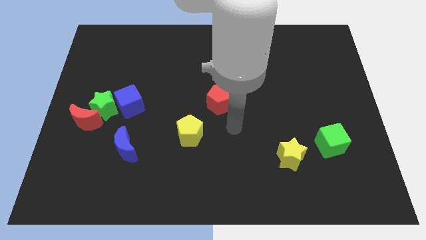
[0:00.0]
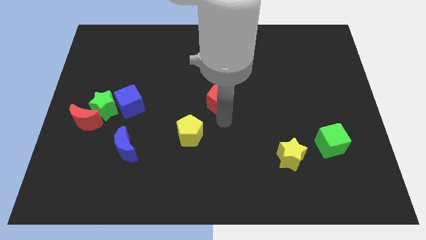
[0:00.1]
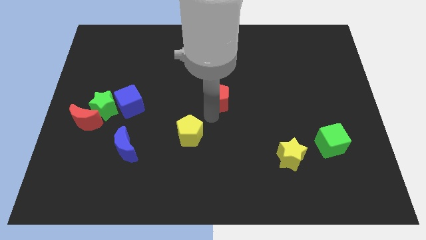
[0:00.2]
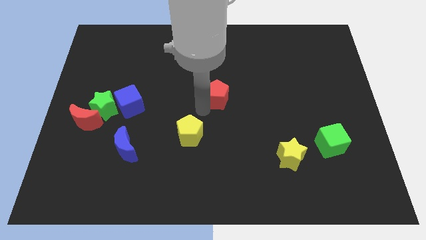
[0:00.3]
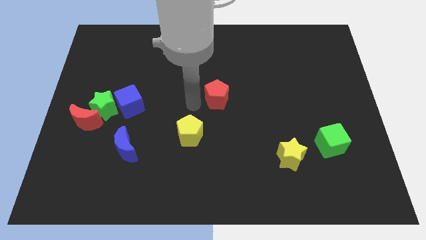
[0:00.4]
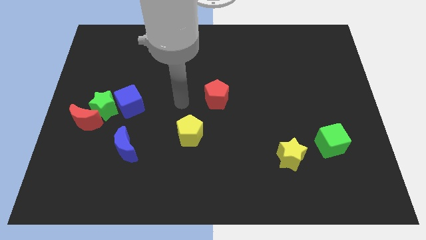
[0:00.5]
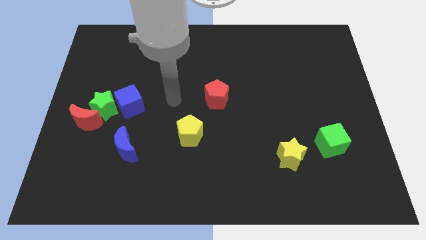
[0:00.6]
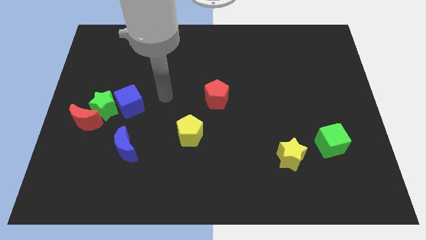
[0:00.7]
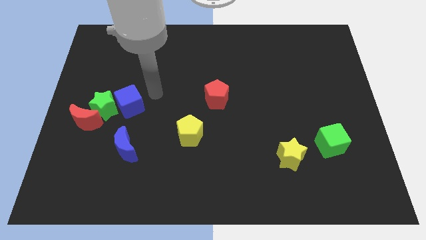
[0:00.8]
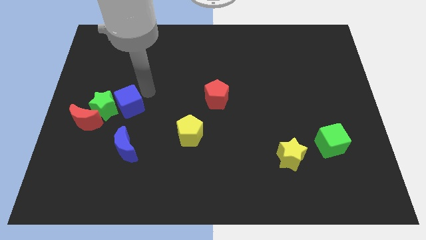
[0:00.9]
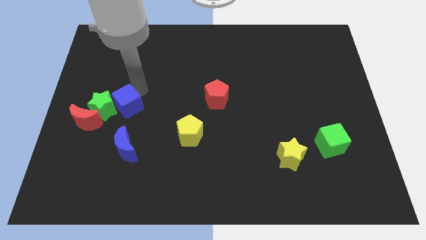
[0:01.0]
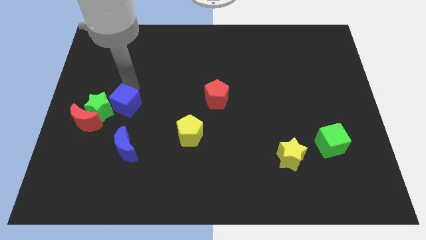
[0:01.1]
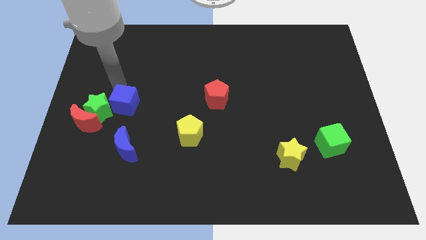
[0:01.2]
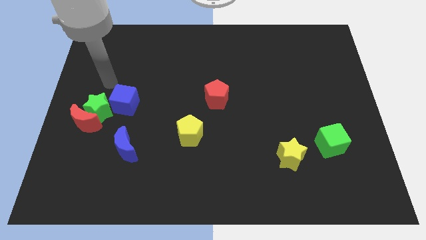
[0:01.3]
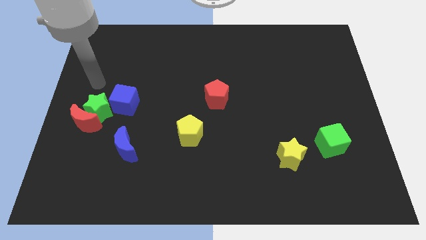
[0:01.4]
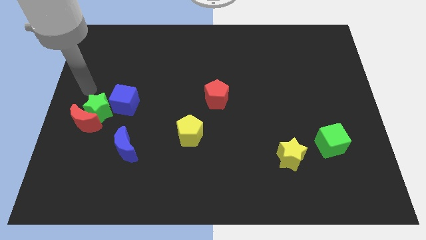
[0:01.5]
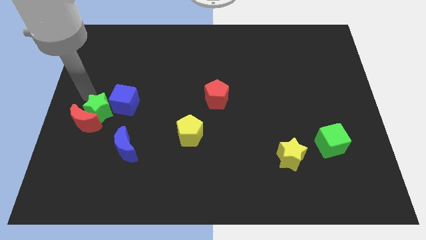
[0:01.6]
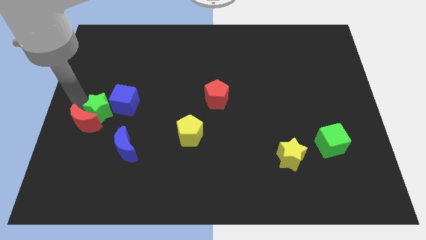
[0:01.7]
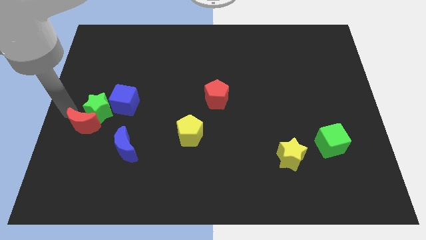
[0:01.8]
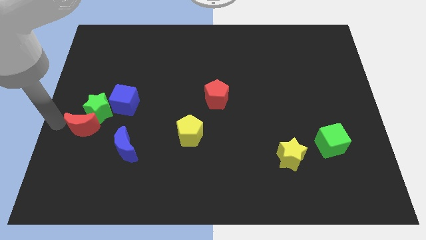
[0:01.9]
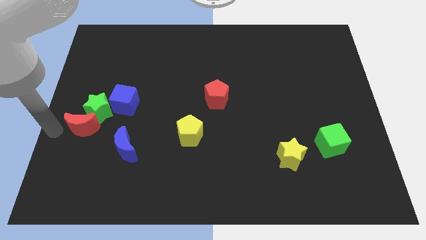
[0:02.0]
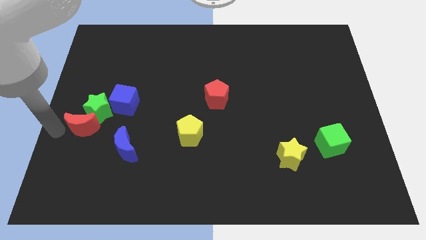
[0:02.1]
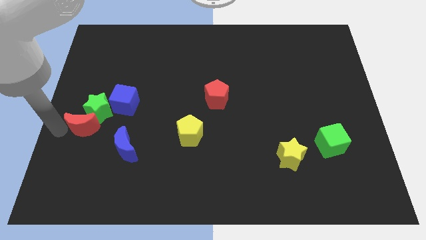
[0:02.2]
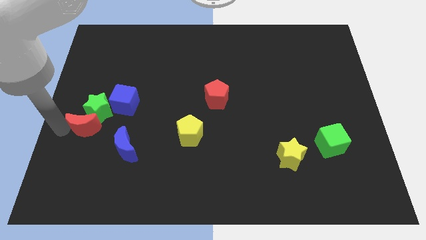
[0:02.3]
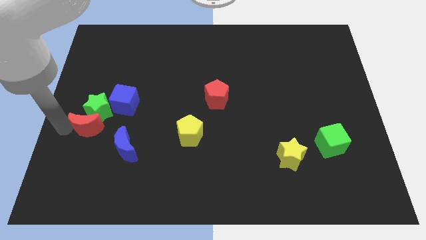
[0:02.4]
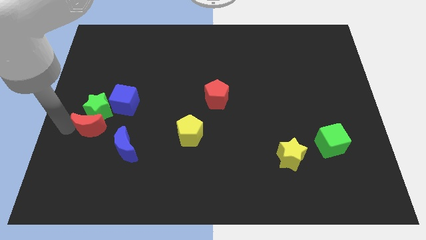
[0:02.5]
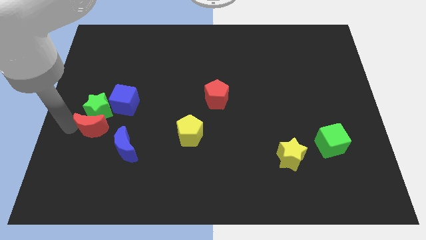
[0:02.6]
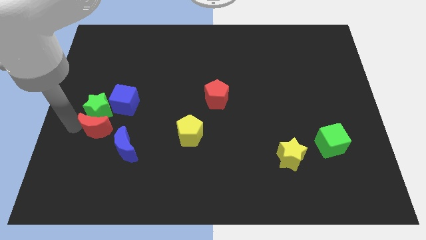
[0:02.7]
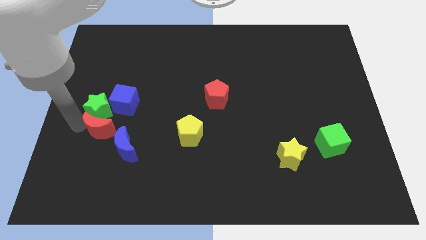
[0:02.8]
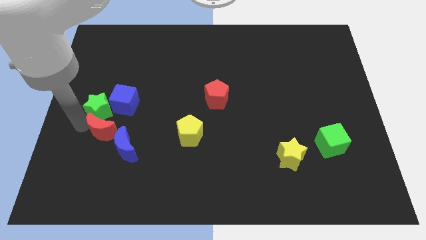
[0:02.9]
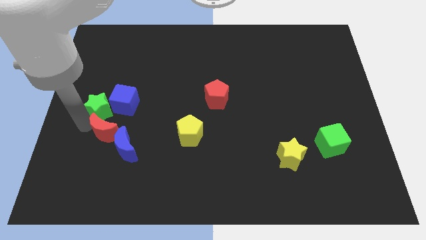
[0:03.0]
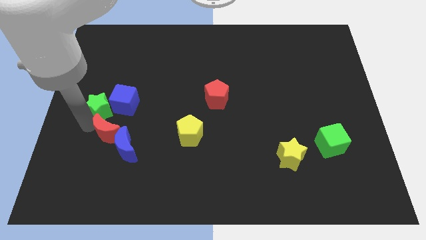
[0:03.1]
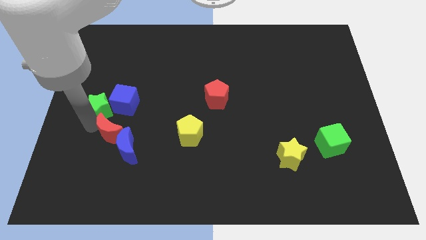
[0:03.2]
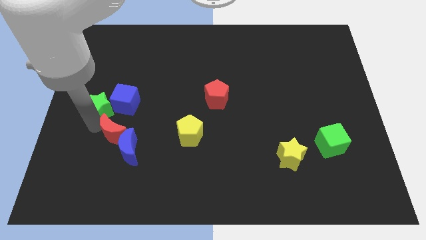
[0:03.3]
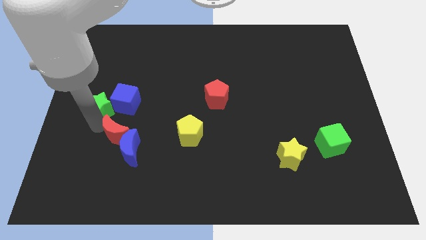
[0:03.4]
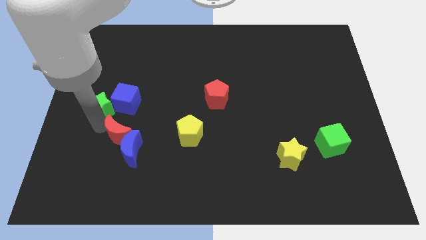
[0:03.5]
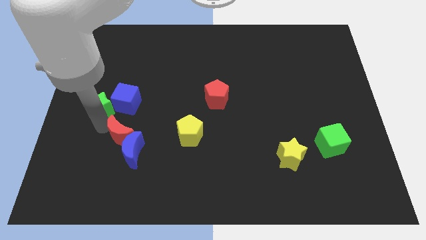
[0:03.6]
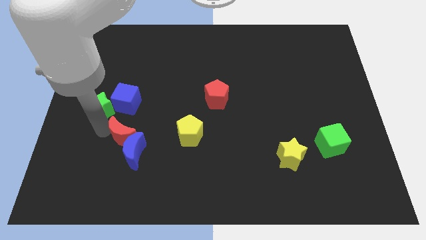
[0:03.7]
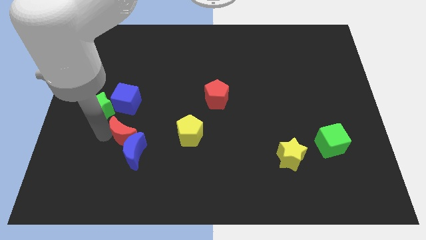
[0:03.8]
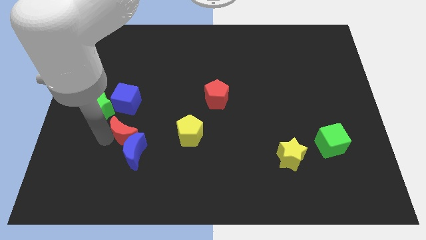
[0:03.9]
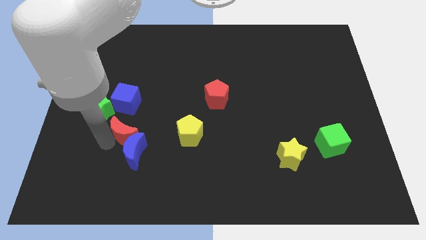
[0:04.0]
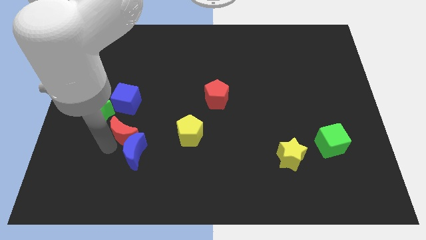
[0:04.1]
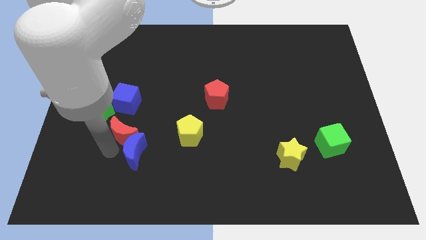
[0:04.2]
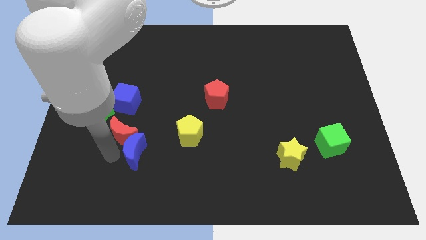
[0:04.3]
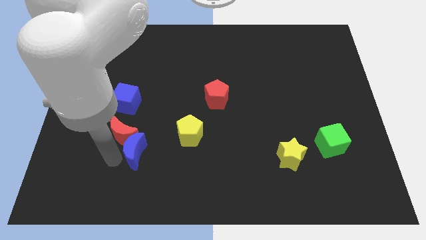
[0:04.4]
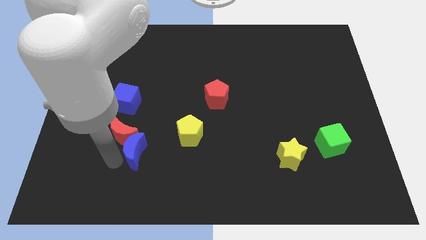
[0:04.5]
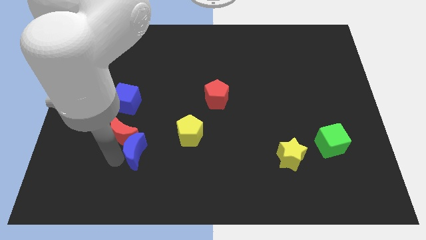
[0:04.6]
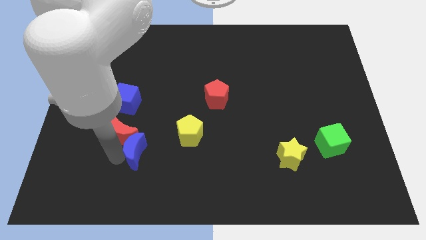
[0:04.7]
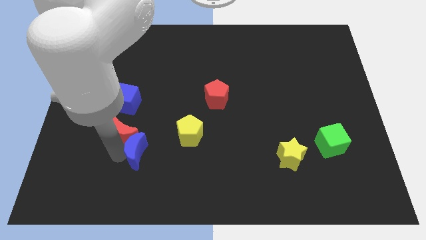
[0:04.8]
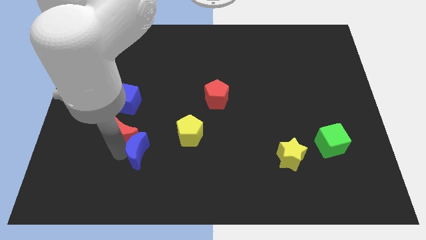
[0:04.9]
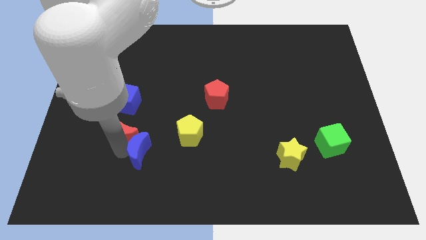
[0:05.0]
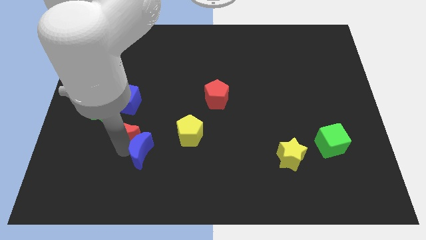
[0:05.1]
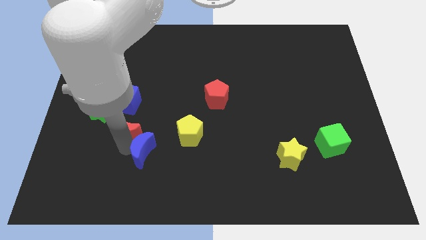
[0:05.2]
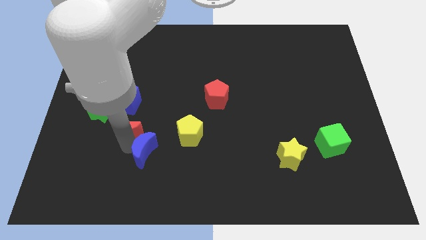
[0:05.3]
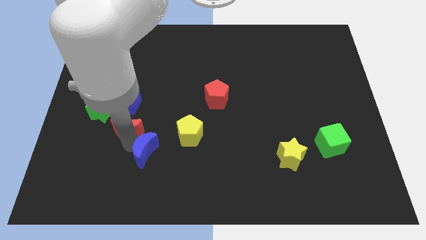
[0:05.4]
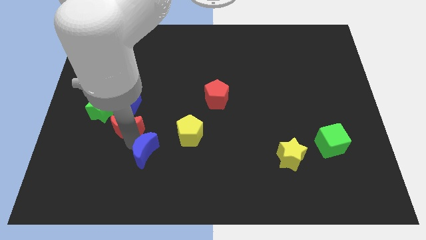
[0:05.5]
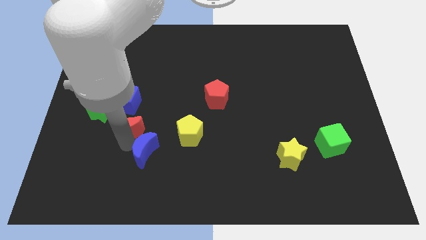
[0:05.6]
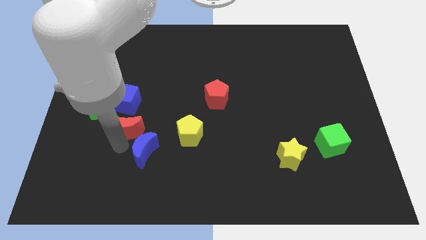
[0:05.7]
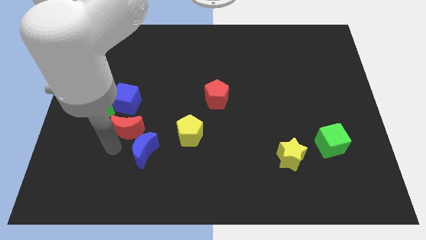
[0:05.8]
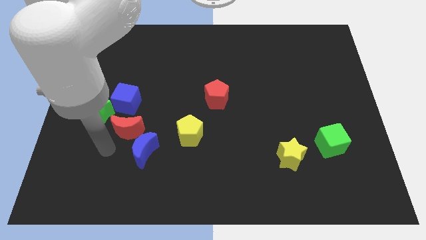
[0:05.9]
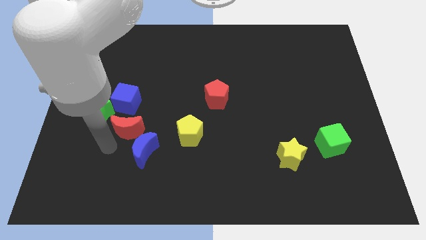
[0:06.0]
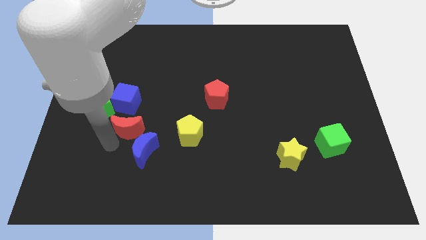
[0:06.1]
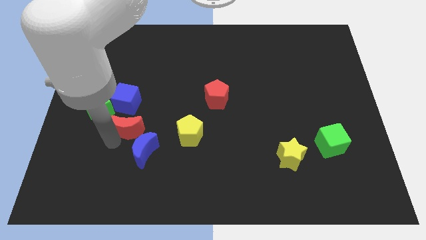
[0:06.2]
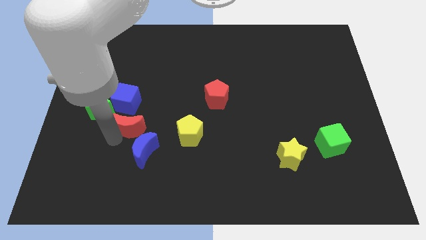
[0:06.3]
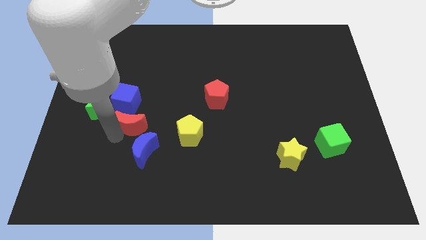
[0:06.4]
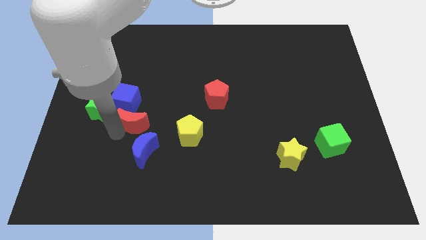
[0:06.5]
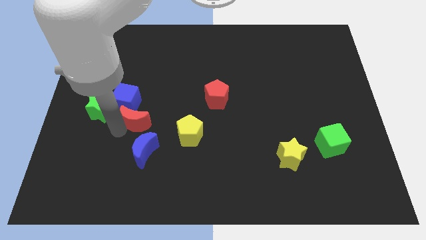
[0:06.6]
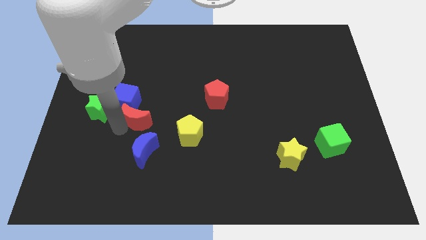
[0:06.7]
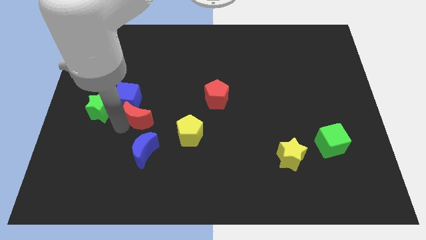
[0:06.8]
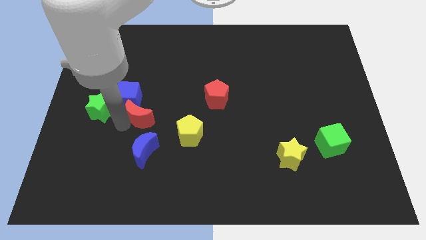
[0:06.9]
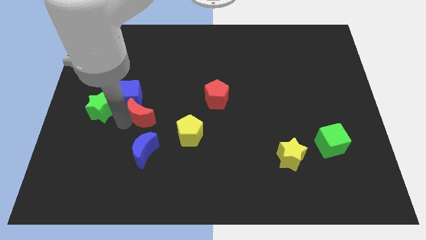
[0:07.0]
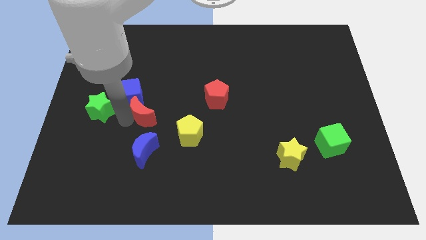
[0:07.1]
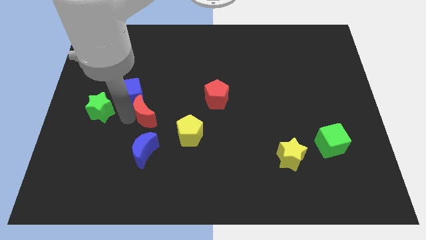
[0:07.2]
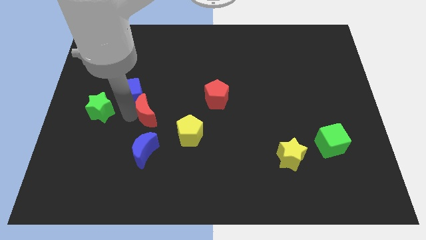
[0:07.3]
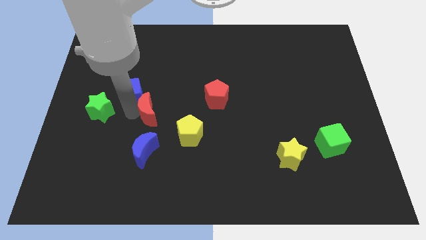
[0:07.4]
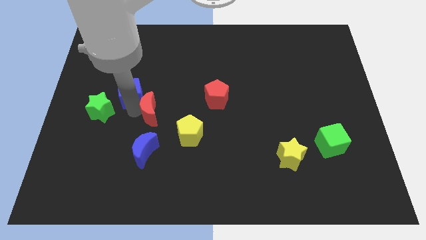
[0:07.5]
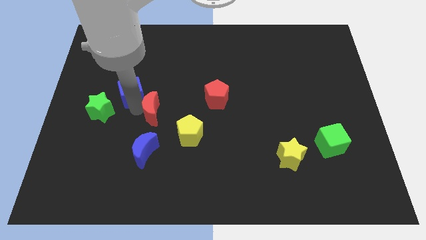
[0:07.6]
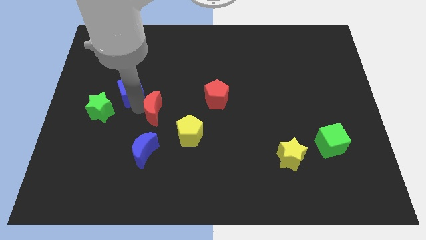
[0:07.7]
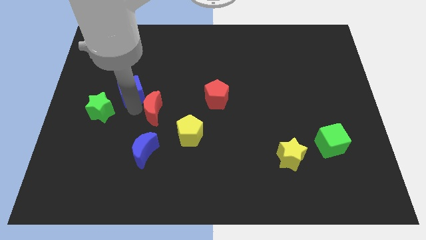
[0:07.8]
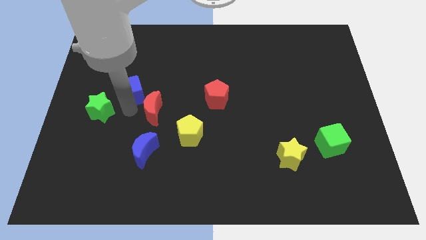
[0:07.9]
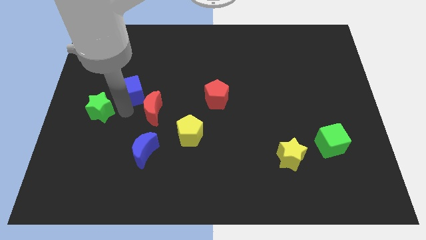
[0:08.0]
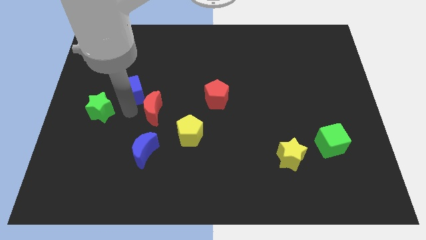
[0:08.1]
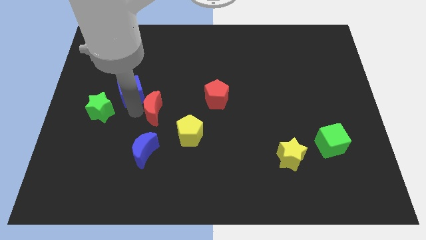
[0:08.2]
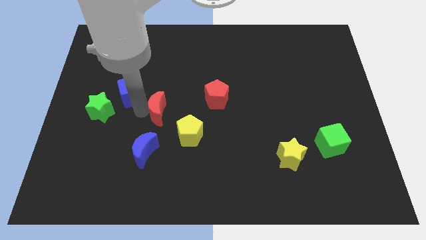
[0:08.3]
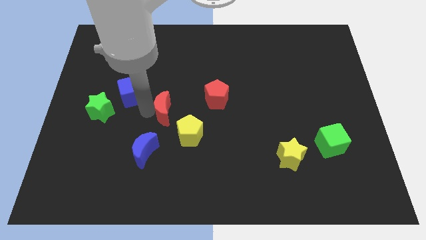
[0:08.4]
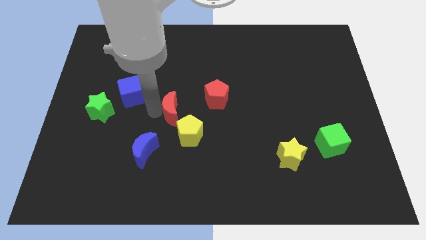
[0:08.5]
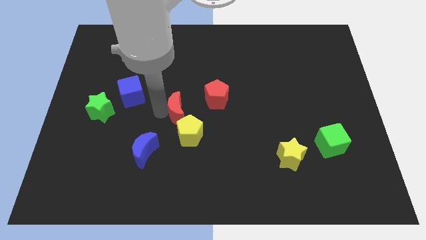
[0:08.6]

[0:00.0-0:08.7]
move the red moon right
